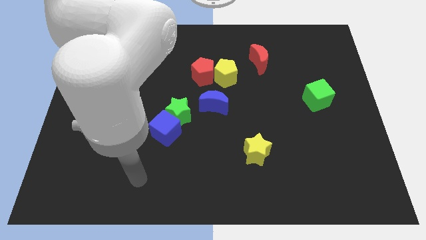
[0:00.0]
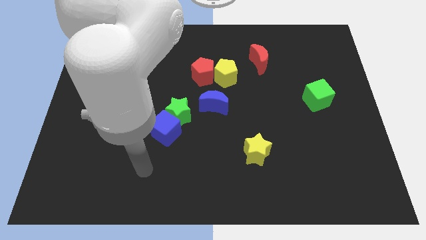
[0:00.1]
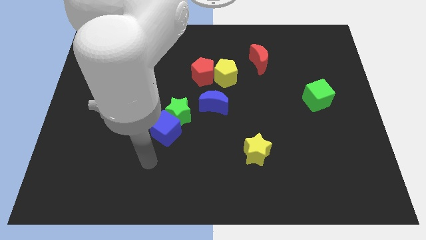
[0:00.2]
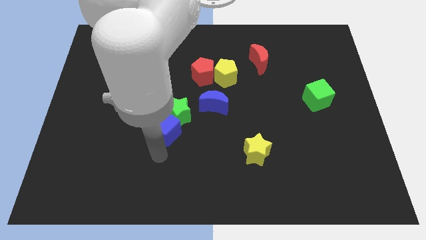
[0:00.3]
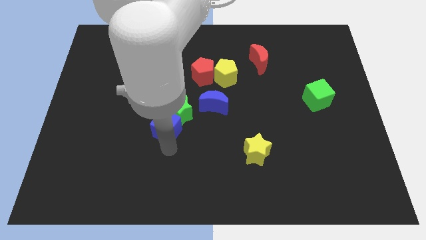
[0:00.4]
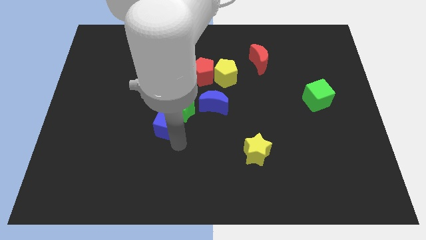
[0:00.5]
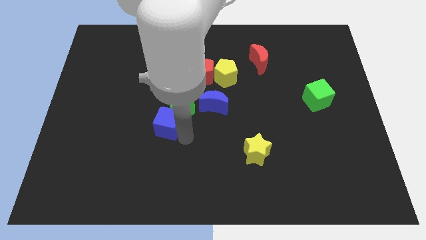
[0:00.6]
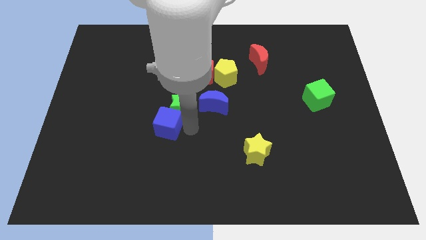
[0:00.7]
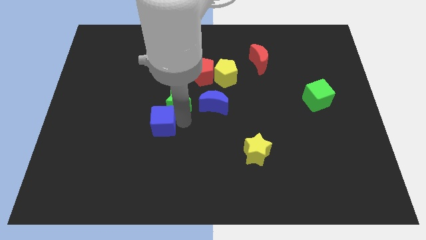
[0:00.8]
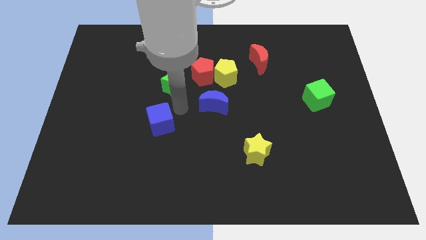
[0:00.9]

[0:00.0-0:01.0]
separate the blue cube from the green star

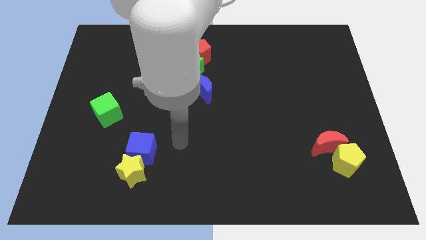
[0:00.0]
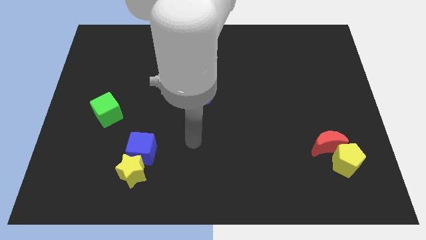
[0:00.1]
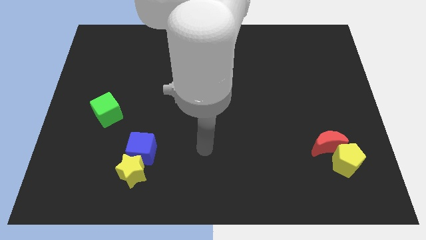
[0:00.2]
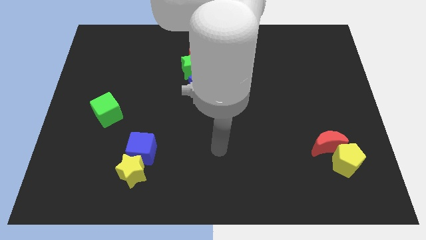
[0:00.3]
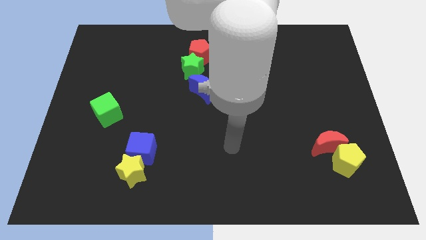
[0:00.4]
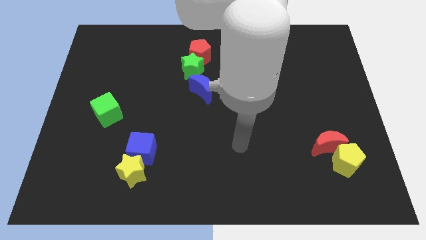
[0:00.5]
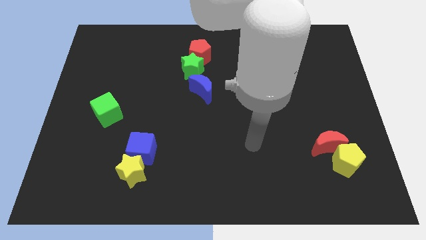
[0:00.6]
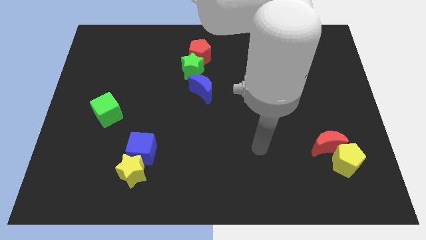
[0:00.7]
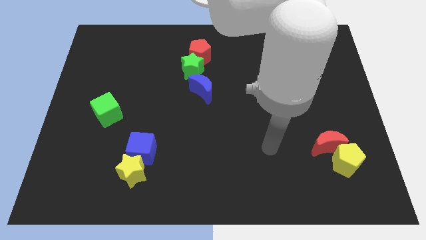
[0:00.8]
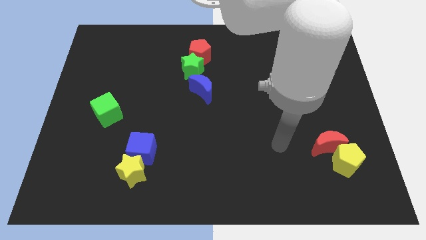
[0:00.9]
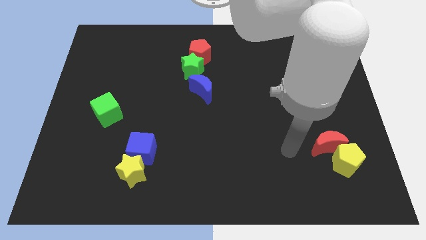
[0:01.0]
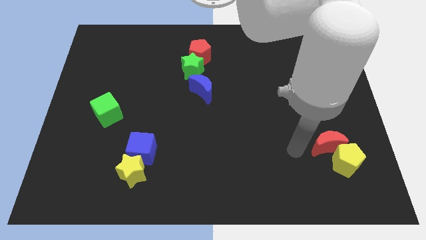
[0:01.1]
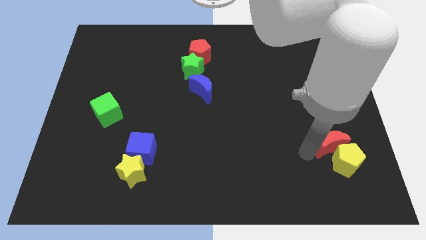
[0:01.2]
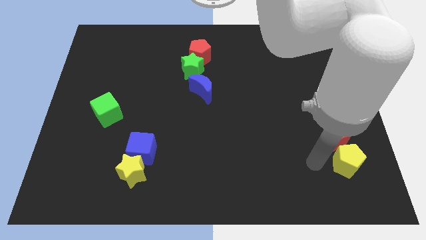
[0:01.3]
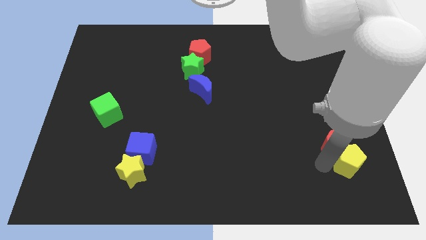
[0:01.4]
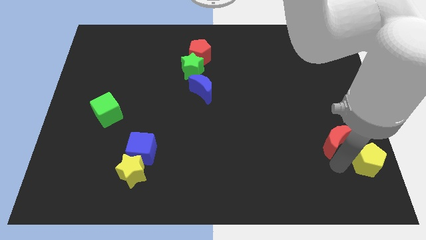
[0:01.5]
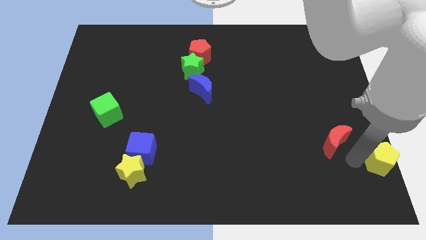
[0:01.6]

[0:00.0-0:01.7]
separate the red moon from the yellow pentagon

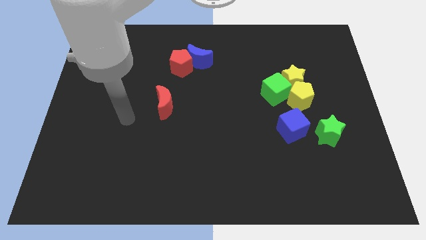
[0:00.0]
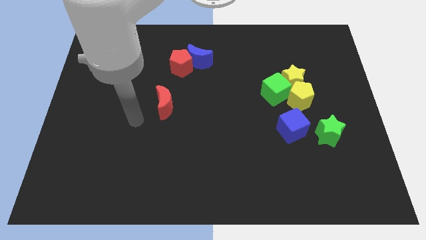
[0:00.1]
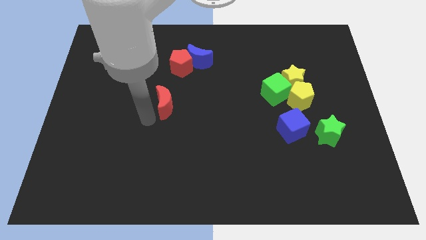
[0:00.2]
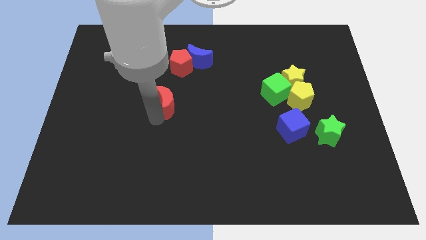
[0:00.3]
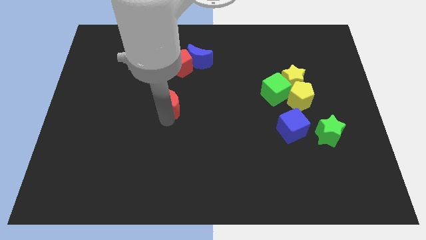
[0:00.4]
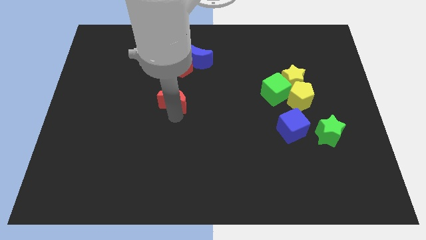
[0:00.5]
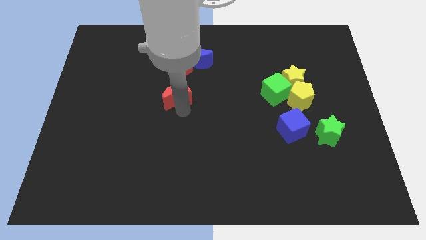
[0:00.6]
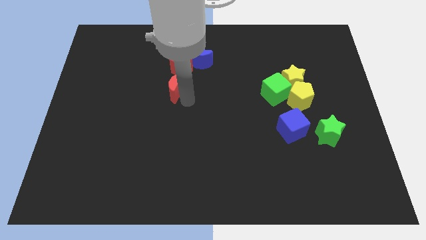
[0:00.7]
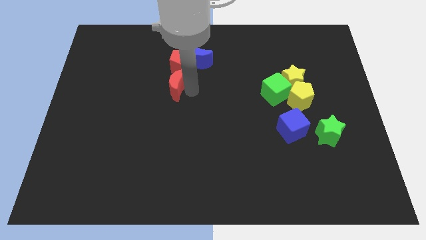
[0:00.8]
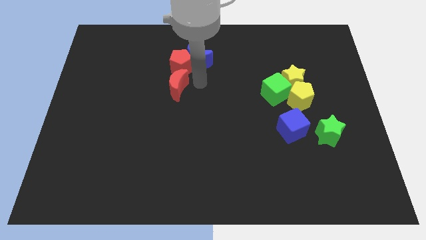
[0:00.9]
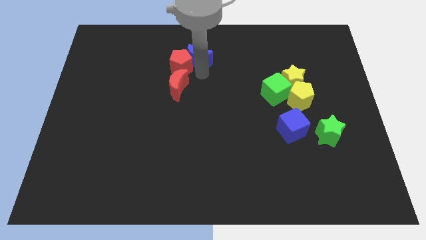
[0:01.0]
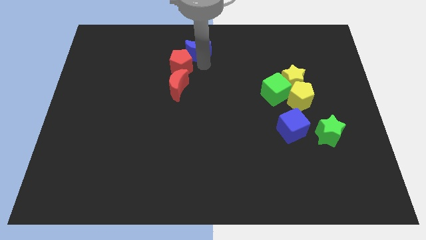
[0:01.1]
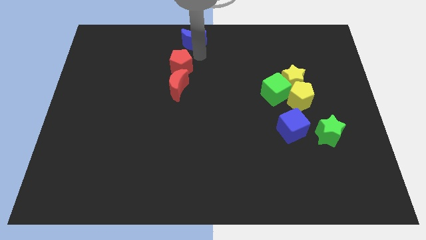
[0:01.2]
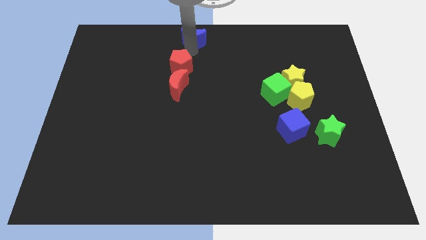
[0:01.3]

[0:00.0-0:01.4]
separate the red pentagon from the blue moon

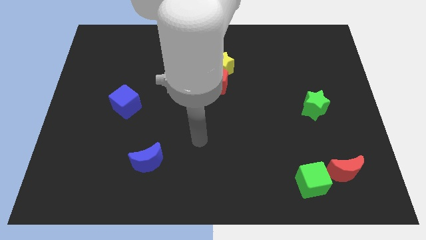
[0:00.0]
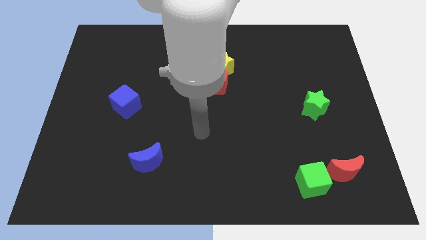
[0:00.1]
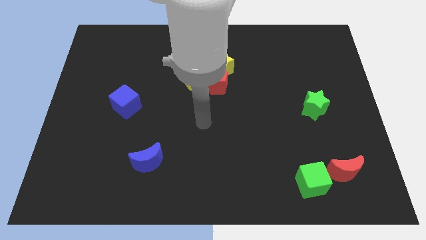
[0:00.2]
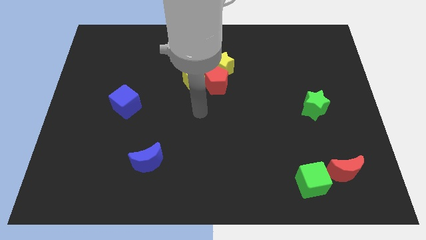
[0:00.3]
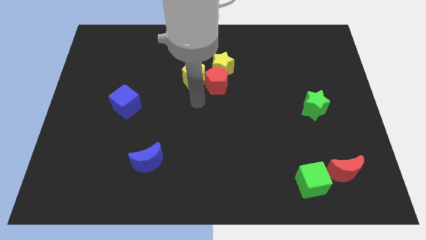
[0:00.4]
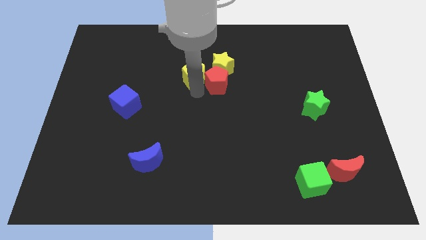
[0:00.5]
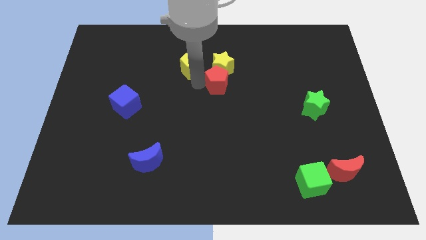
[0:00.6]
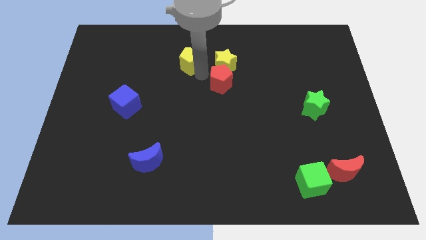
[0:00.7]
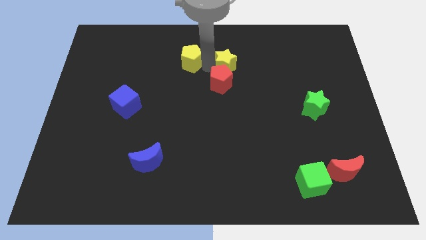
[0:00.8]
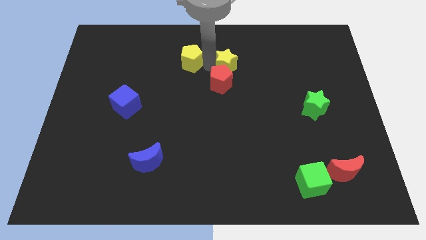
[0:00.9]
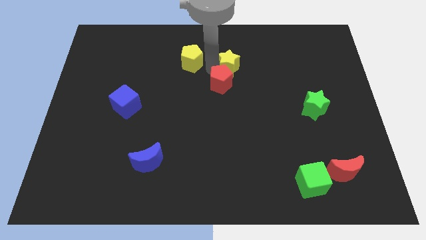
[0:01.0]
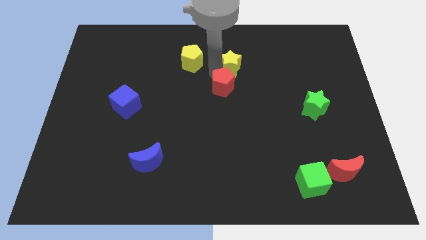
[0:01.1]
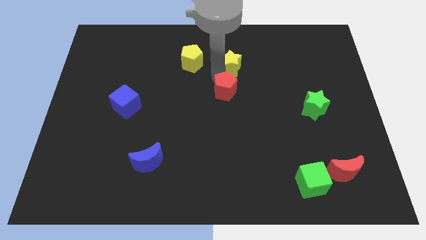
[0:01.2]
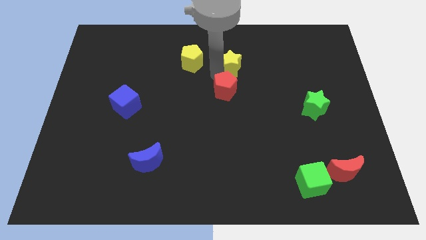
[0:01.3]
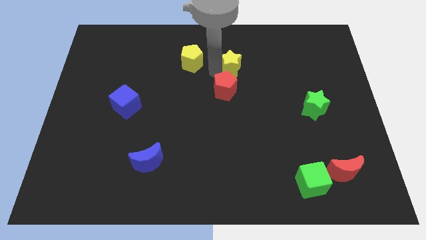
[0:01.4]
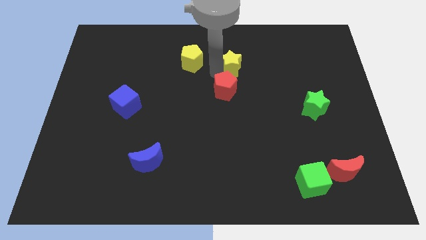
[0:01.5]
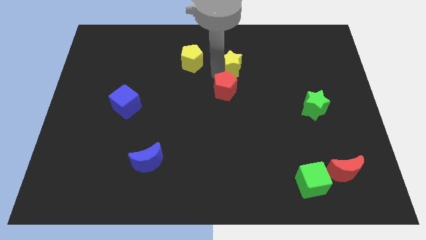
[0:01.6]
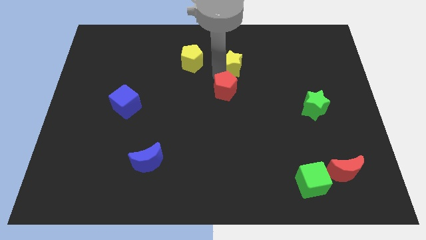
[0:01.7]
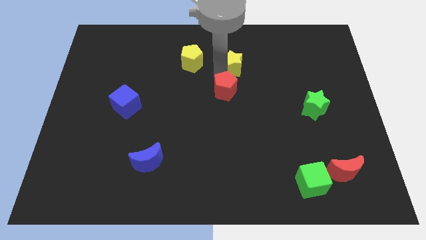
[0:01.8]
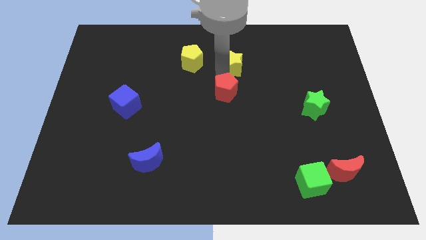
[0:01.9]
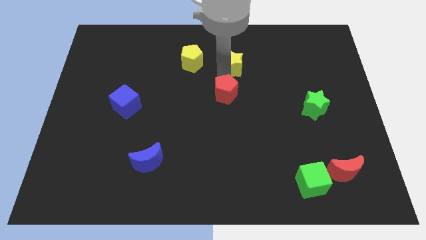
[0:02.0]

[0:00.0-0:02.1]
pull the red pentagon apart from the yellow star and yellow pentagon

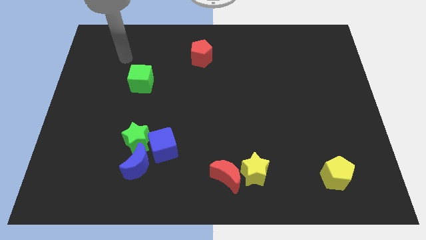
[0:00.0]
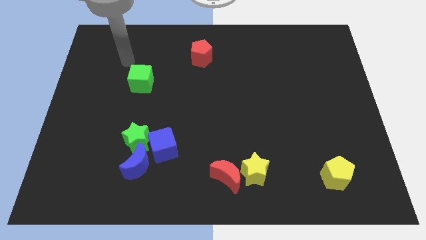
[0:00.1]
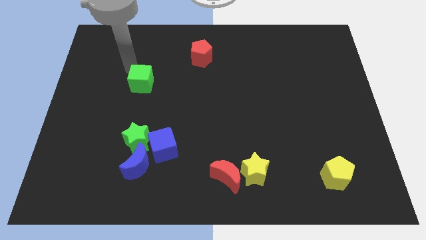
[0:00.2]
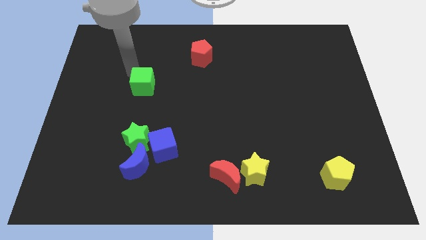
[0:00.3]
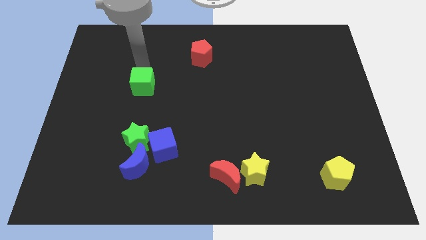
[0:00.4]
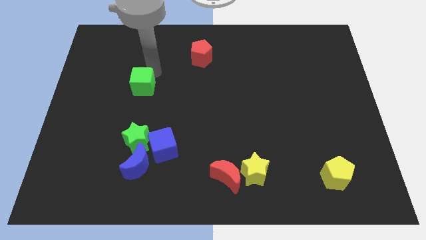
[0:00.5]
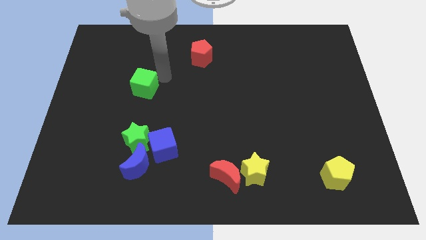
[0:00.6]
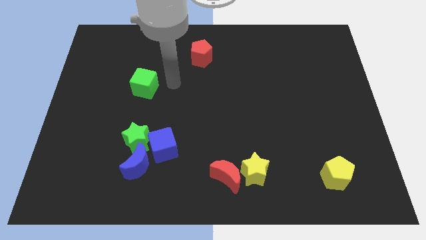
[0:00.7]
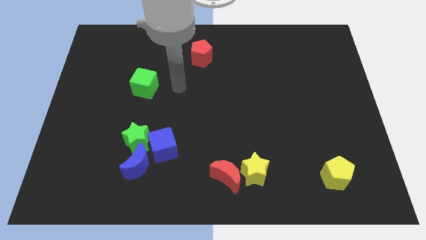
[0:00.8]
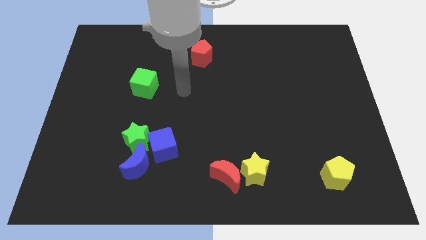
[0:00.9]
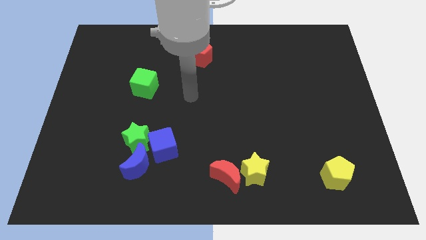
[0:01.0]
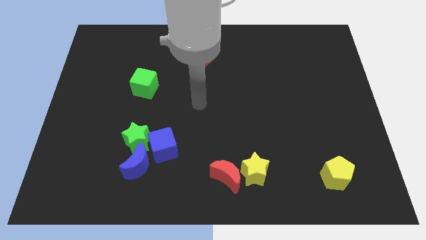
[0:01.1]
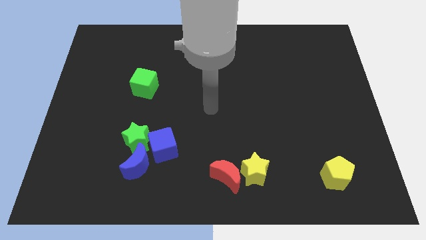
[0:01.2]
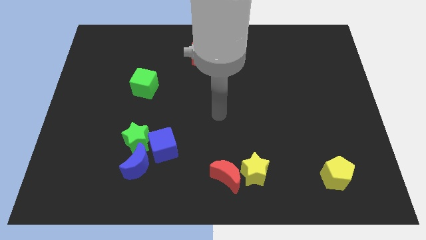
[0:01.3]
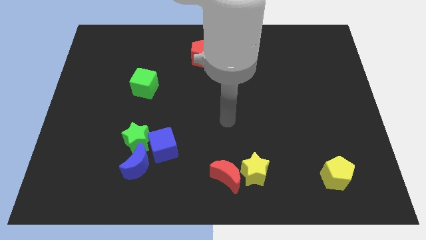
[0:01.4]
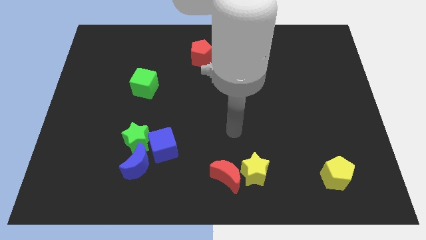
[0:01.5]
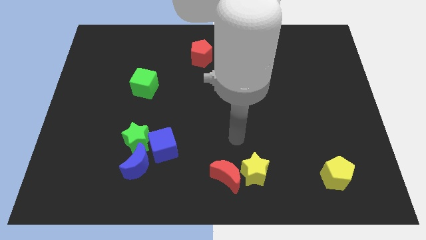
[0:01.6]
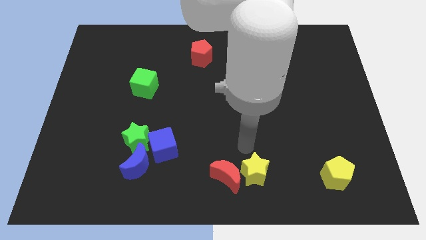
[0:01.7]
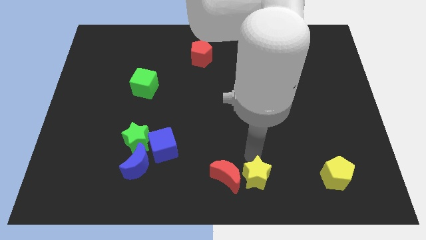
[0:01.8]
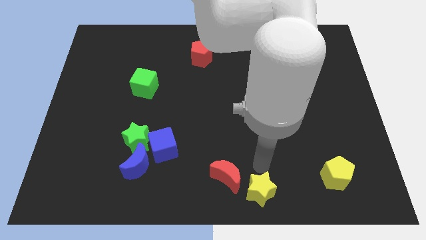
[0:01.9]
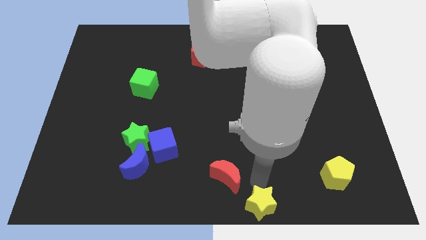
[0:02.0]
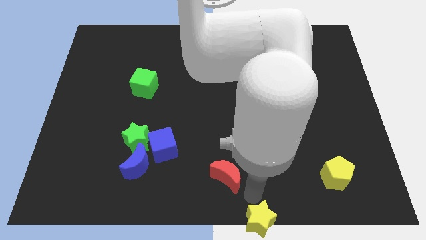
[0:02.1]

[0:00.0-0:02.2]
move the red moon away from the yellow star

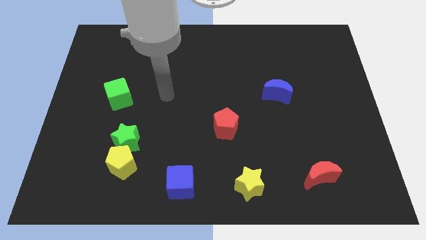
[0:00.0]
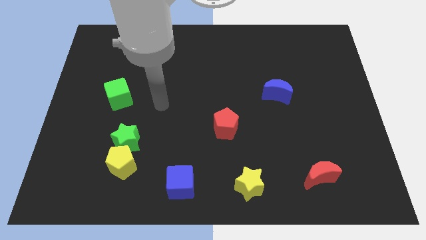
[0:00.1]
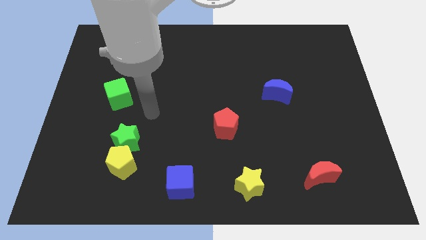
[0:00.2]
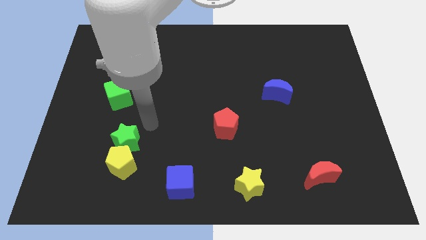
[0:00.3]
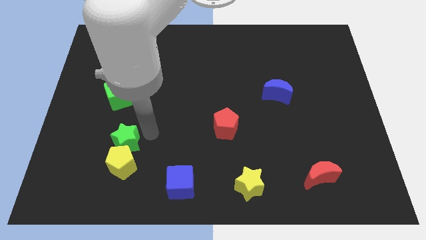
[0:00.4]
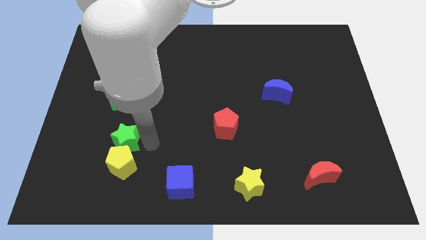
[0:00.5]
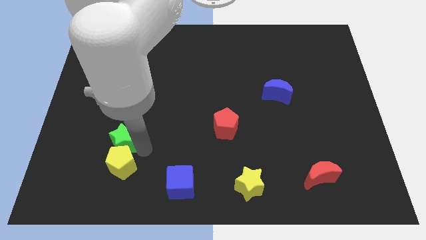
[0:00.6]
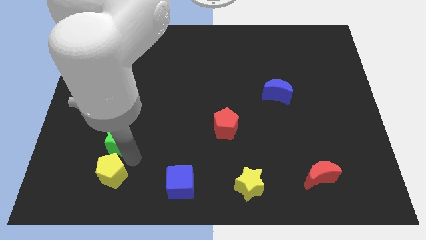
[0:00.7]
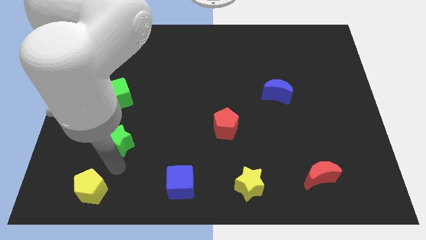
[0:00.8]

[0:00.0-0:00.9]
separate the green star from the yellow pentagon
